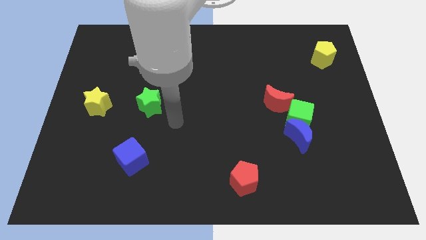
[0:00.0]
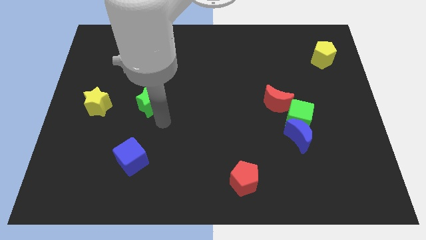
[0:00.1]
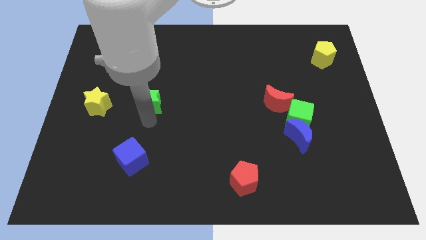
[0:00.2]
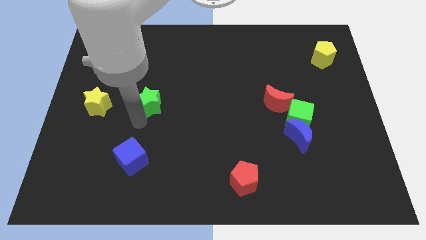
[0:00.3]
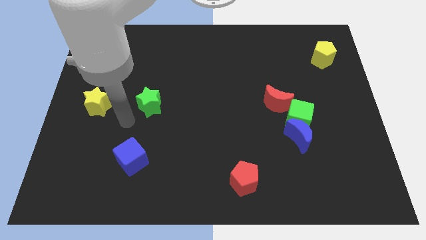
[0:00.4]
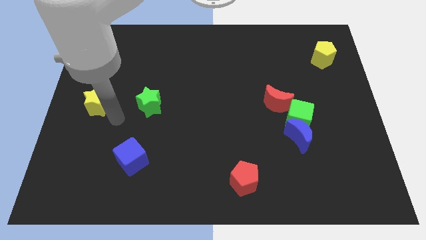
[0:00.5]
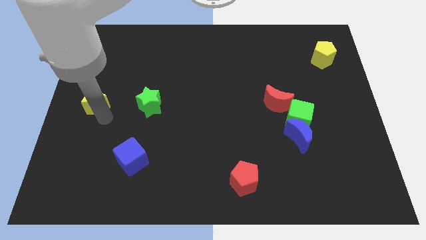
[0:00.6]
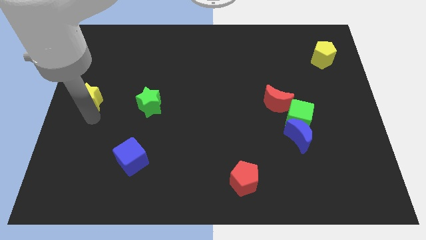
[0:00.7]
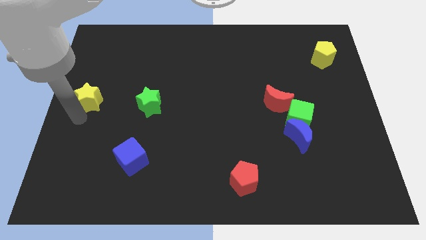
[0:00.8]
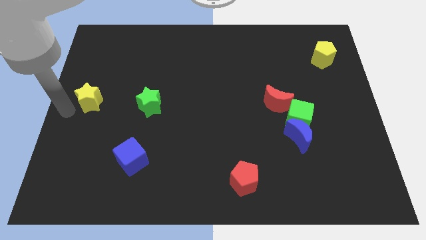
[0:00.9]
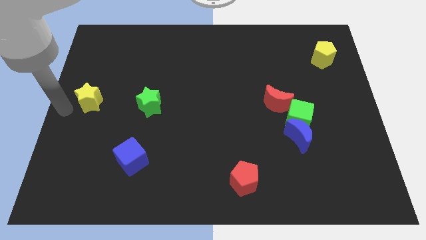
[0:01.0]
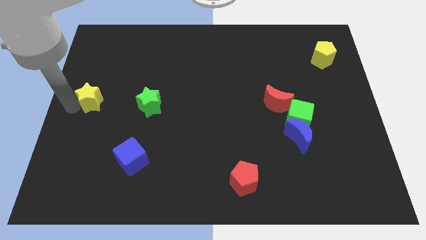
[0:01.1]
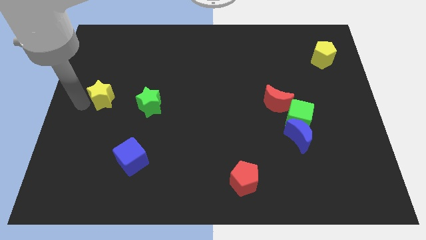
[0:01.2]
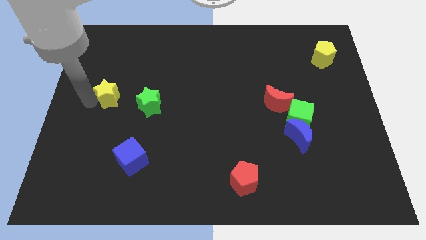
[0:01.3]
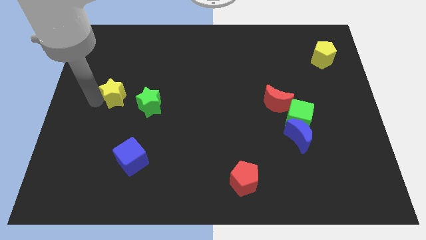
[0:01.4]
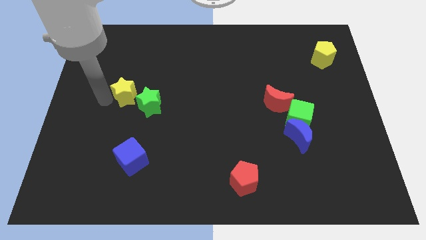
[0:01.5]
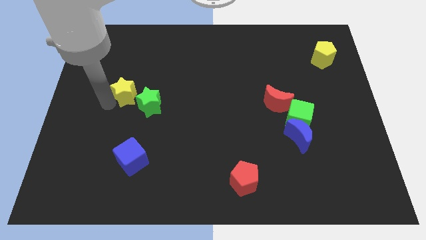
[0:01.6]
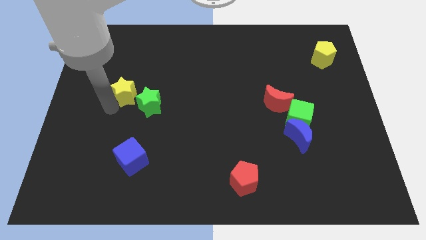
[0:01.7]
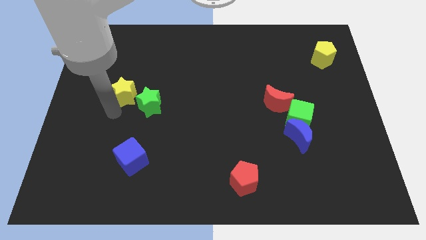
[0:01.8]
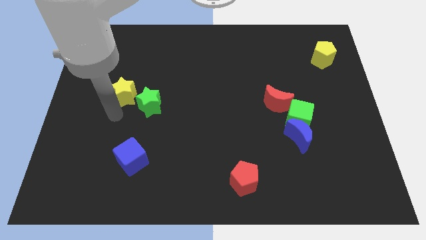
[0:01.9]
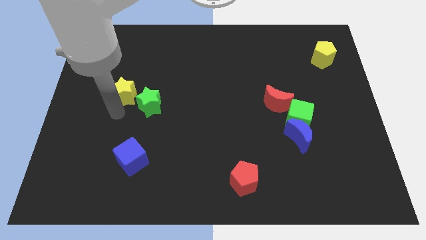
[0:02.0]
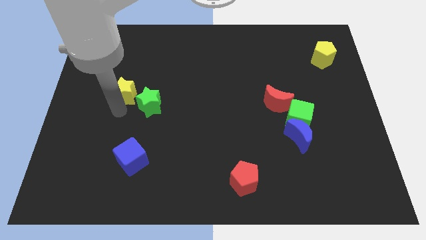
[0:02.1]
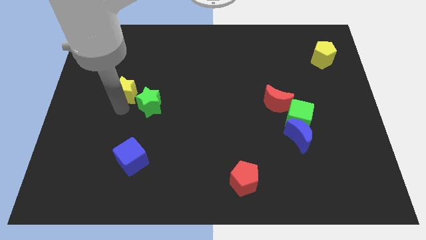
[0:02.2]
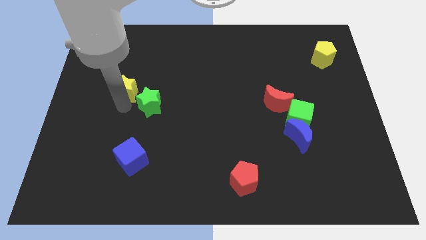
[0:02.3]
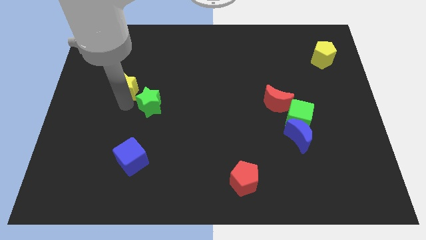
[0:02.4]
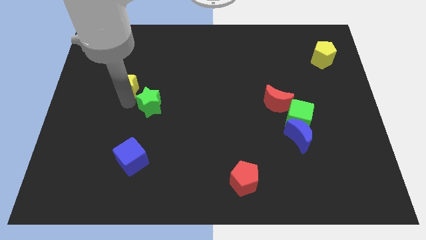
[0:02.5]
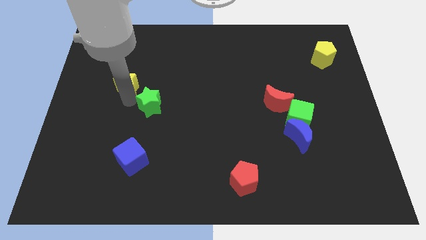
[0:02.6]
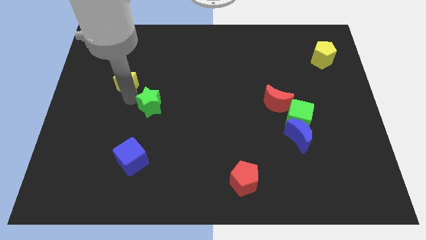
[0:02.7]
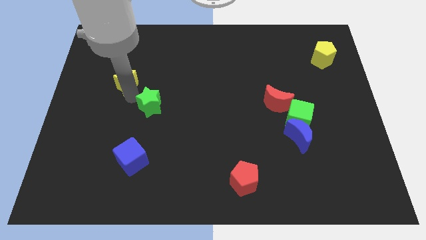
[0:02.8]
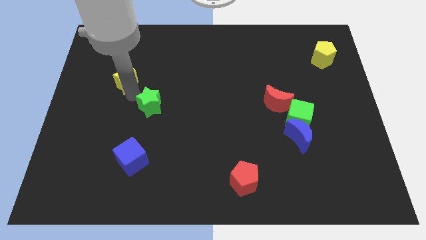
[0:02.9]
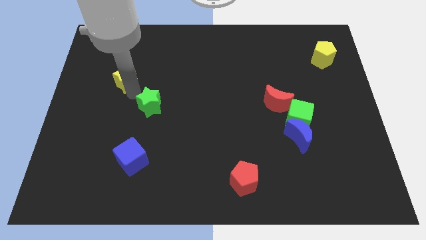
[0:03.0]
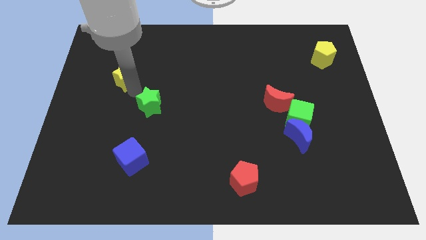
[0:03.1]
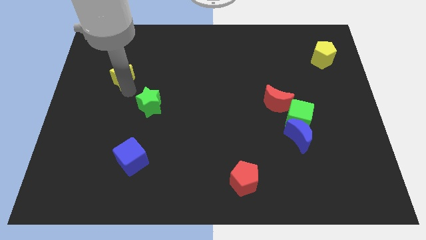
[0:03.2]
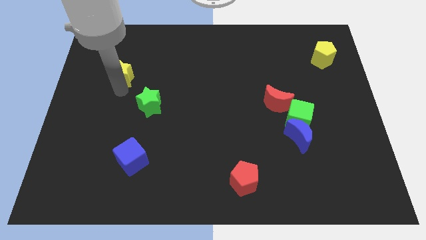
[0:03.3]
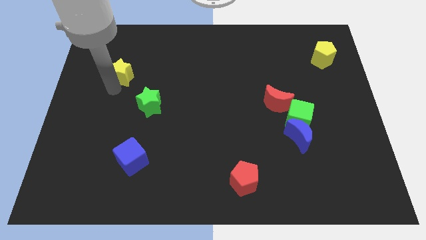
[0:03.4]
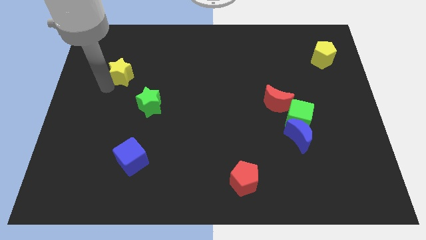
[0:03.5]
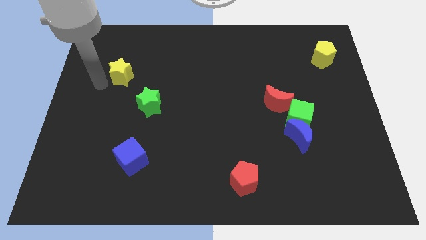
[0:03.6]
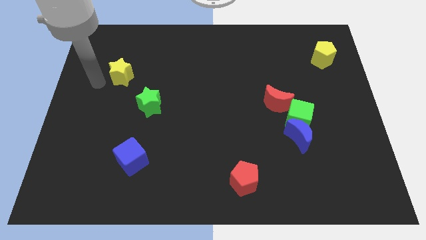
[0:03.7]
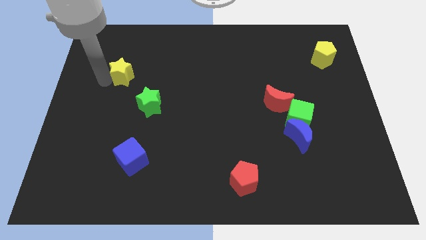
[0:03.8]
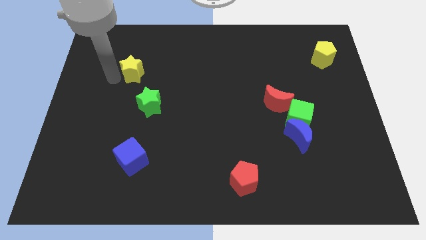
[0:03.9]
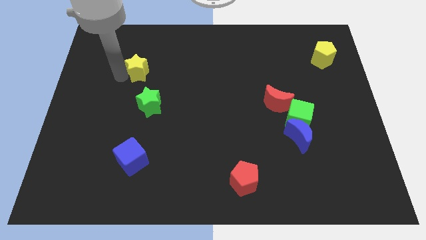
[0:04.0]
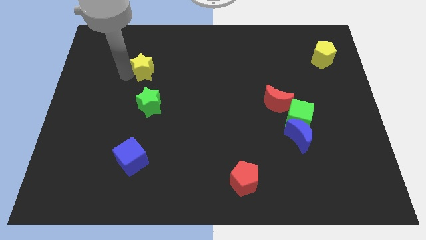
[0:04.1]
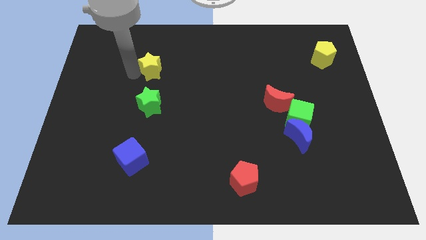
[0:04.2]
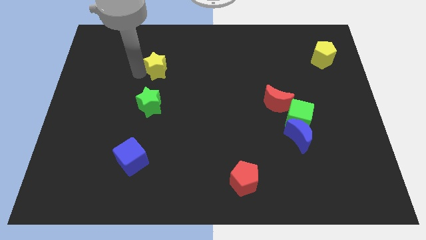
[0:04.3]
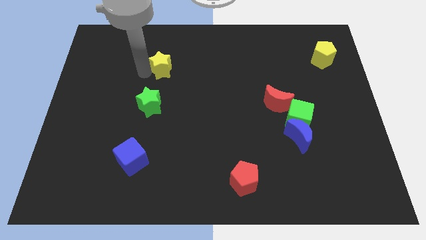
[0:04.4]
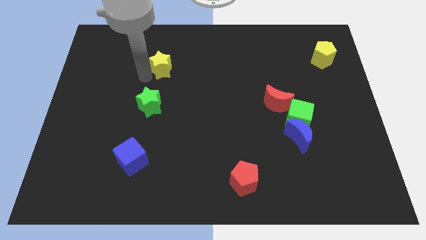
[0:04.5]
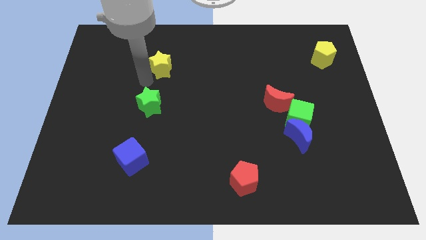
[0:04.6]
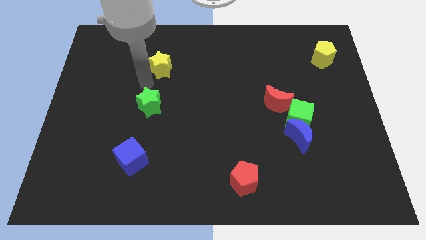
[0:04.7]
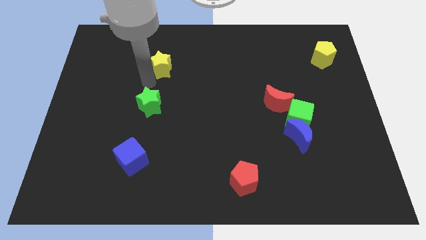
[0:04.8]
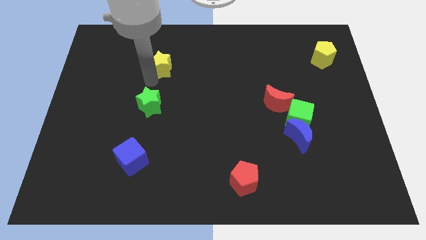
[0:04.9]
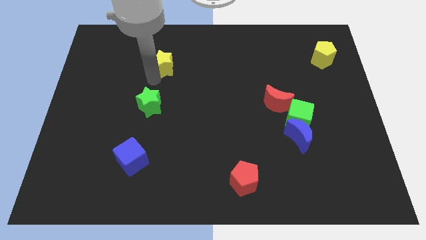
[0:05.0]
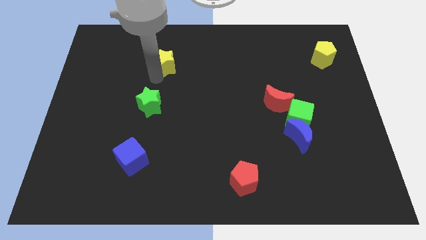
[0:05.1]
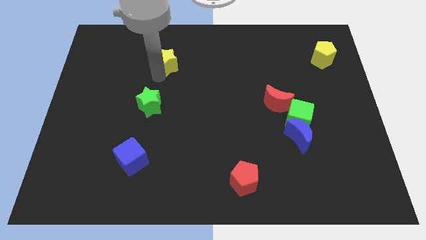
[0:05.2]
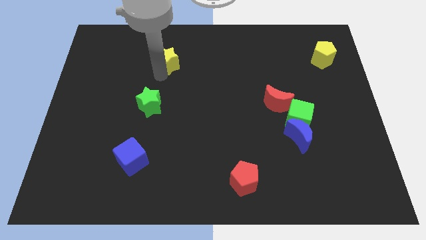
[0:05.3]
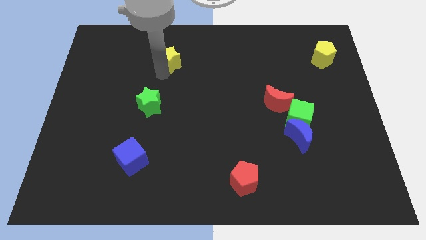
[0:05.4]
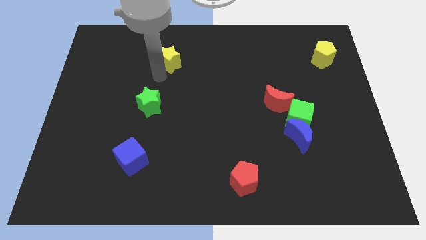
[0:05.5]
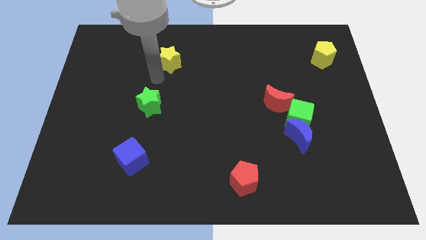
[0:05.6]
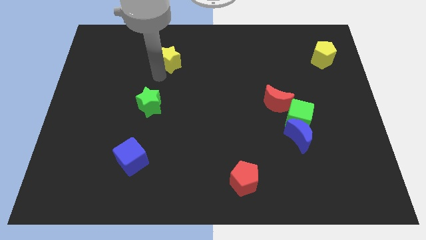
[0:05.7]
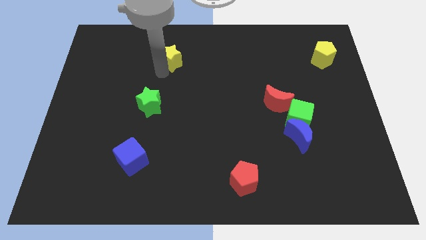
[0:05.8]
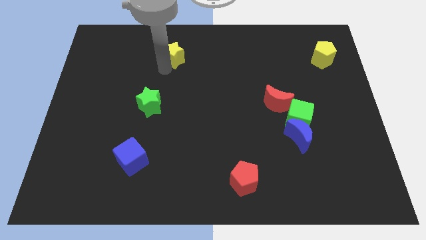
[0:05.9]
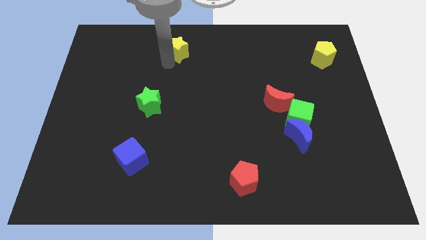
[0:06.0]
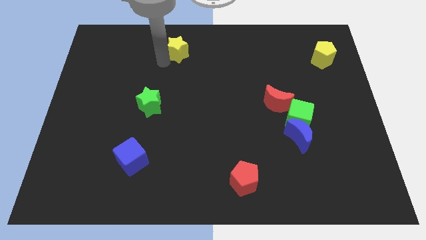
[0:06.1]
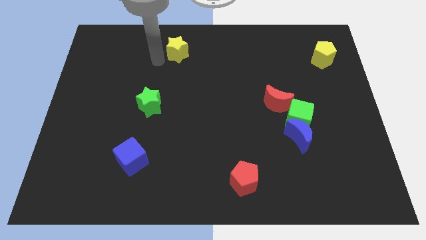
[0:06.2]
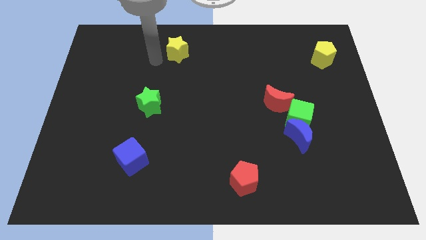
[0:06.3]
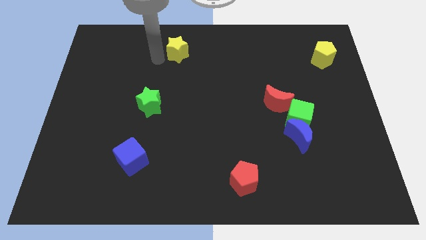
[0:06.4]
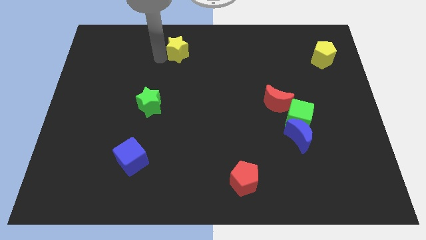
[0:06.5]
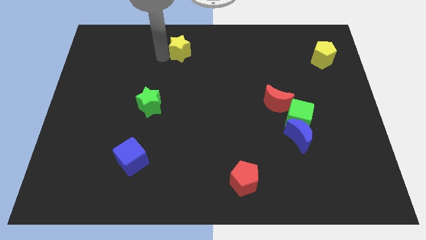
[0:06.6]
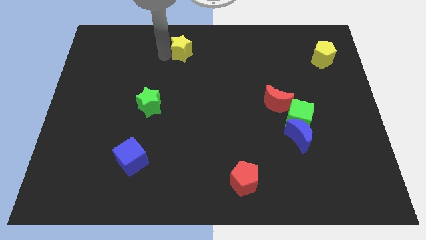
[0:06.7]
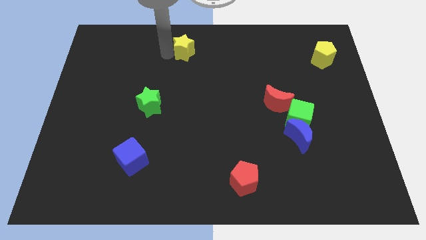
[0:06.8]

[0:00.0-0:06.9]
push the yellow star to the top

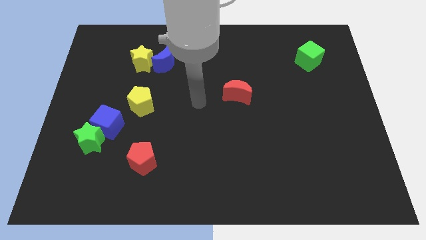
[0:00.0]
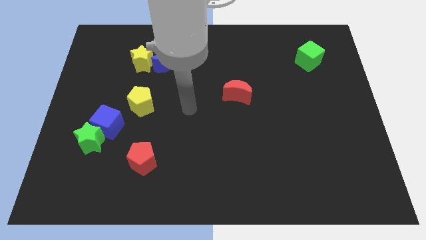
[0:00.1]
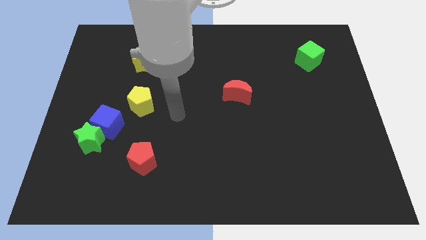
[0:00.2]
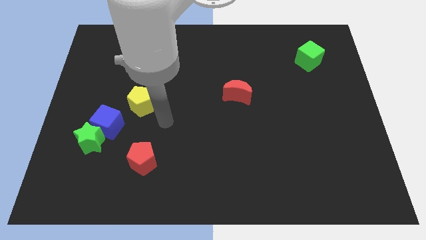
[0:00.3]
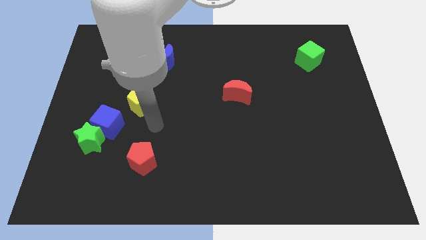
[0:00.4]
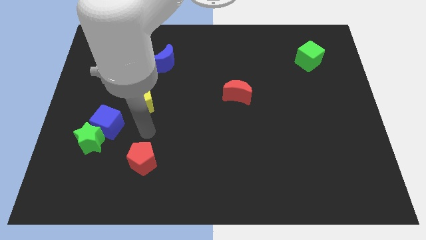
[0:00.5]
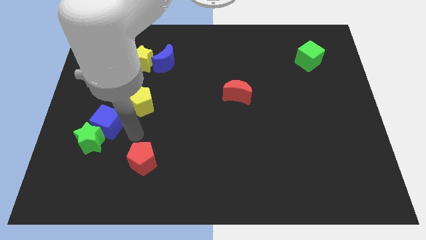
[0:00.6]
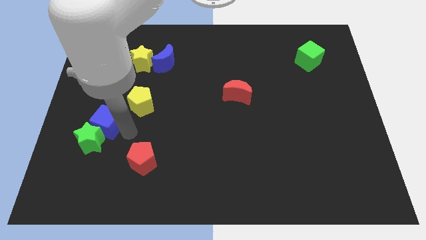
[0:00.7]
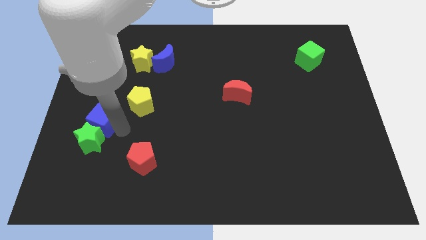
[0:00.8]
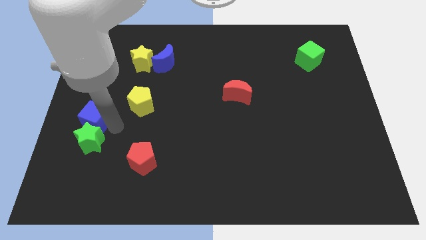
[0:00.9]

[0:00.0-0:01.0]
put the blue cube to the left side of the board

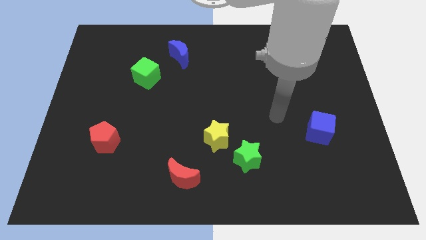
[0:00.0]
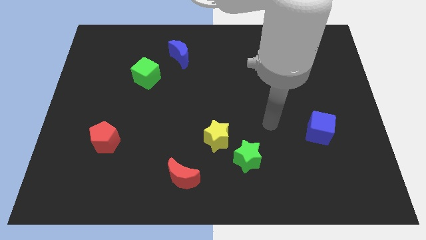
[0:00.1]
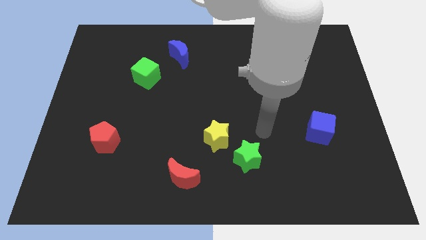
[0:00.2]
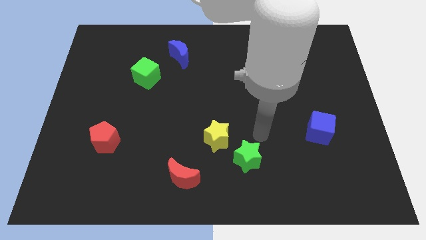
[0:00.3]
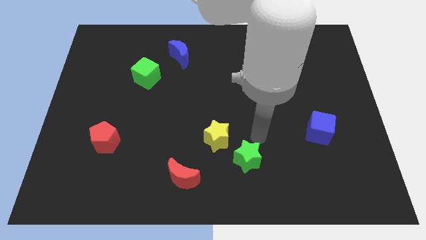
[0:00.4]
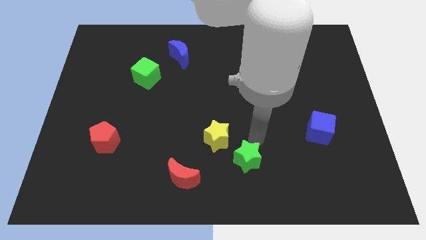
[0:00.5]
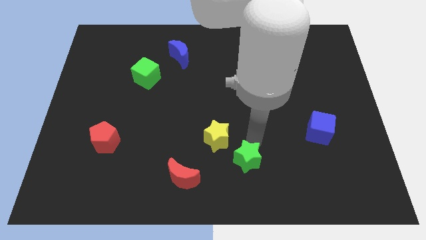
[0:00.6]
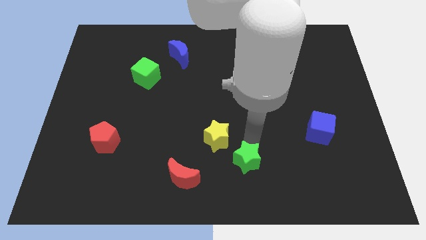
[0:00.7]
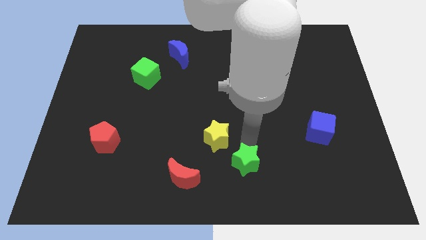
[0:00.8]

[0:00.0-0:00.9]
put the green star to the bottom
